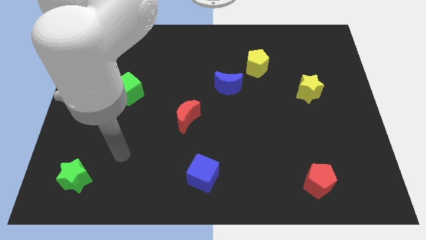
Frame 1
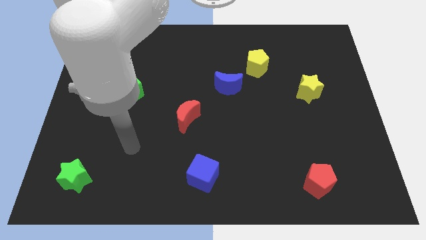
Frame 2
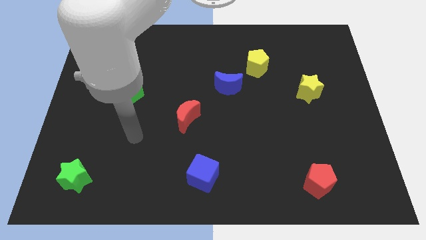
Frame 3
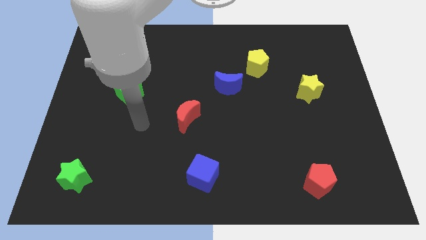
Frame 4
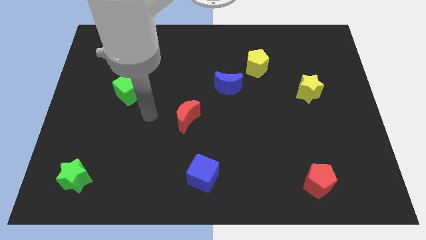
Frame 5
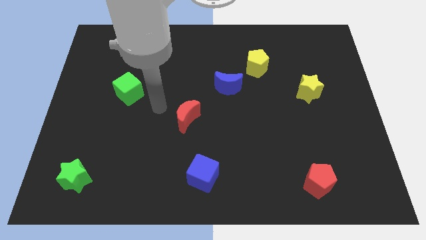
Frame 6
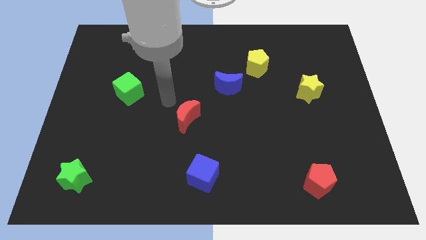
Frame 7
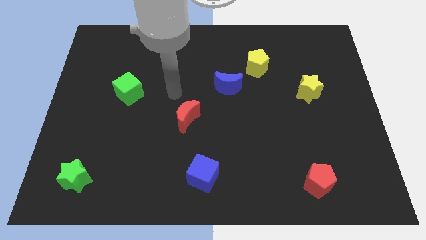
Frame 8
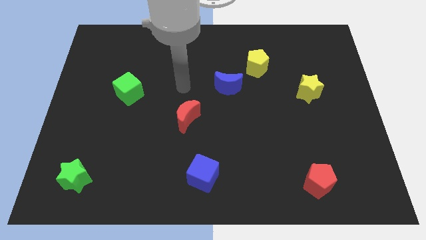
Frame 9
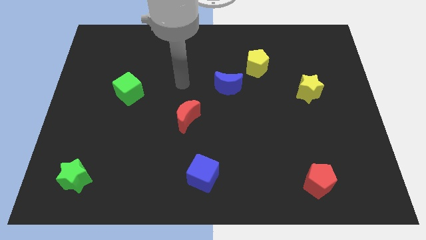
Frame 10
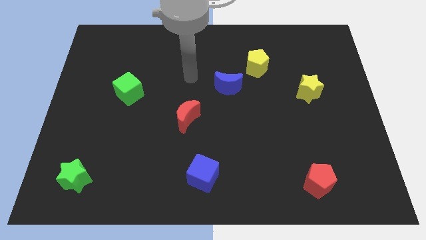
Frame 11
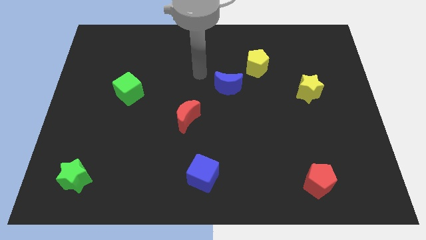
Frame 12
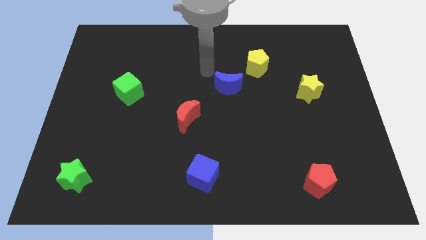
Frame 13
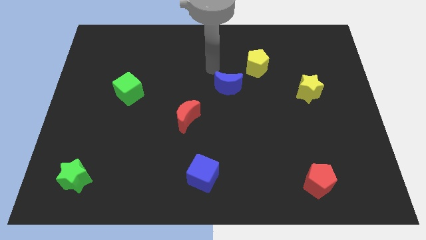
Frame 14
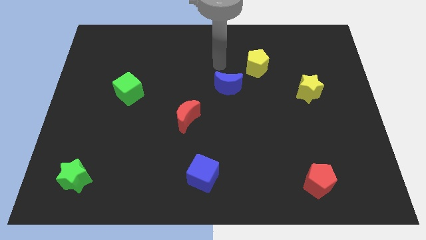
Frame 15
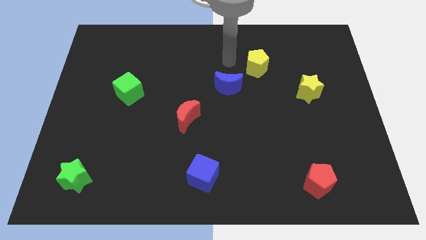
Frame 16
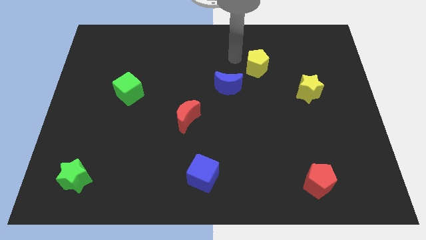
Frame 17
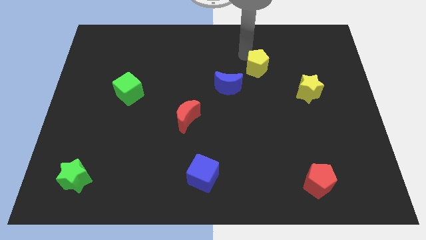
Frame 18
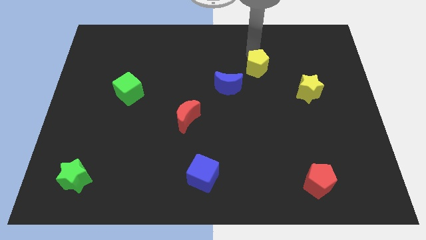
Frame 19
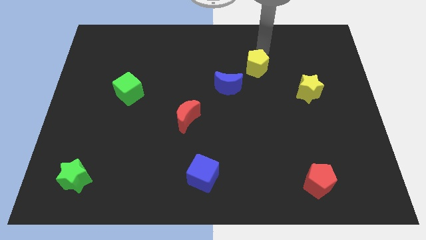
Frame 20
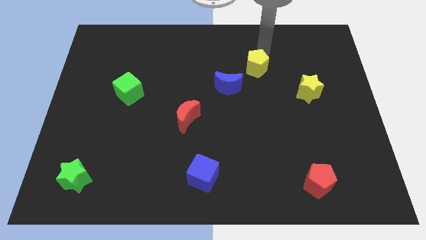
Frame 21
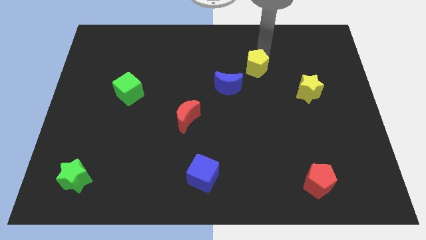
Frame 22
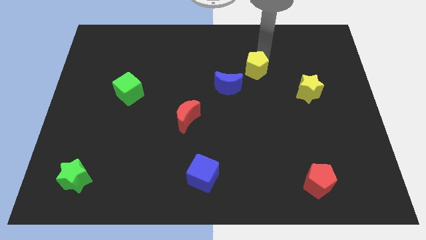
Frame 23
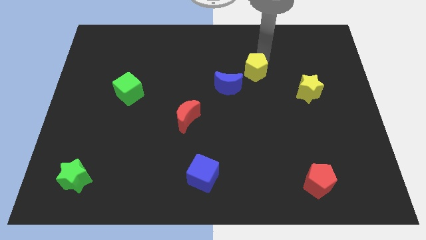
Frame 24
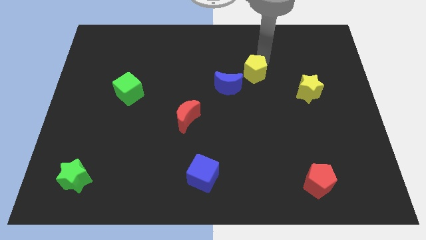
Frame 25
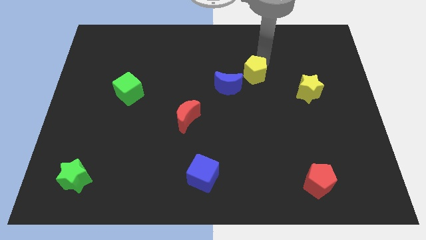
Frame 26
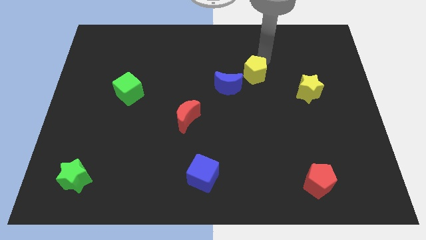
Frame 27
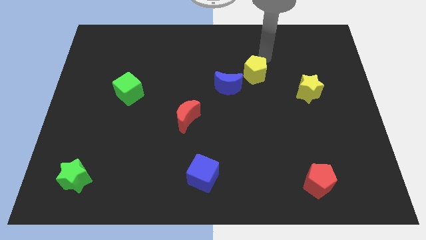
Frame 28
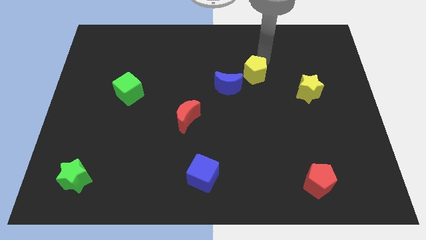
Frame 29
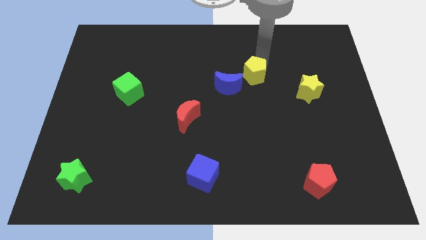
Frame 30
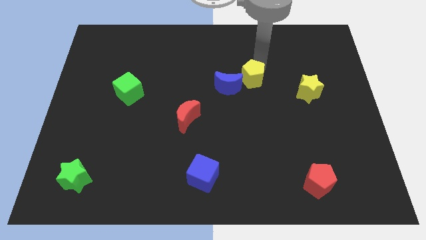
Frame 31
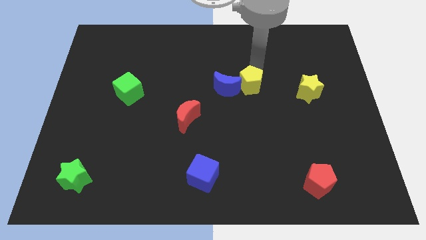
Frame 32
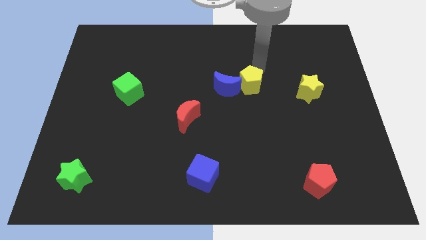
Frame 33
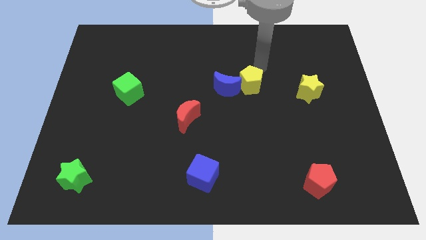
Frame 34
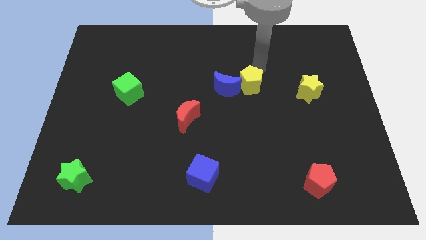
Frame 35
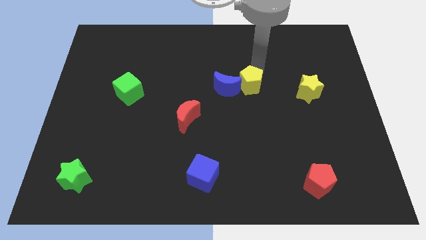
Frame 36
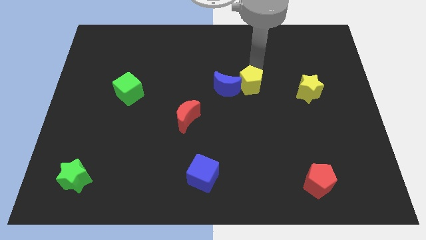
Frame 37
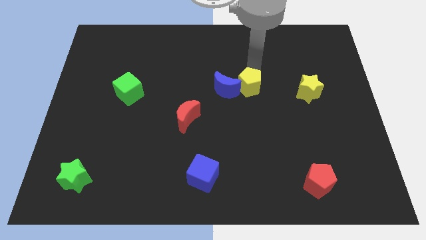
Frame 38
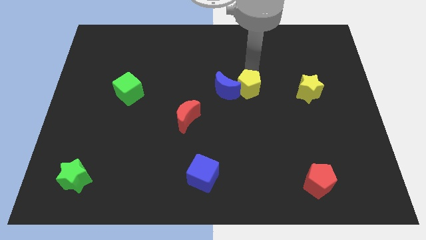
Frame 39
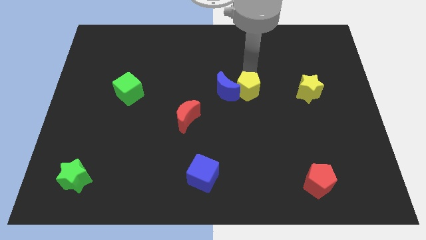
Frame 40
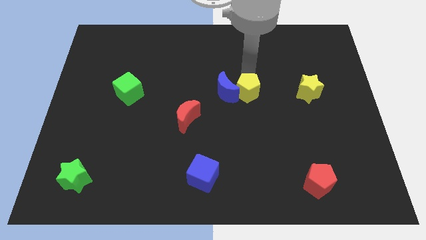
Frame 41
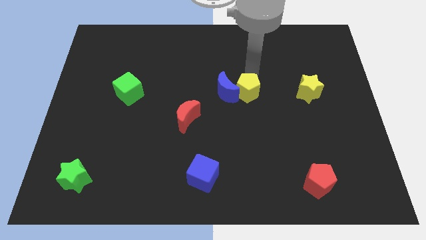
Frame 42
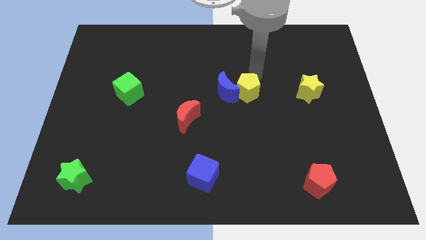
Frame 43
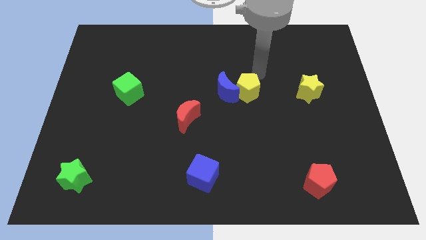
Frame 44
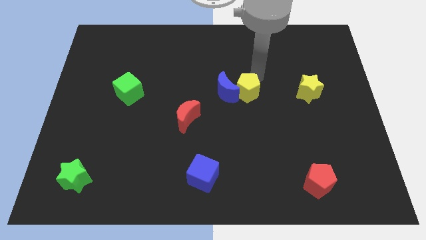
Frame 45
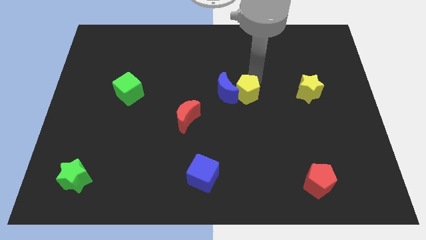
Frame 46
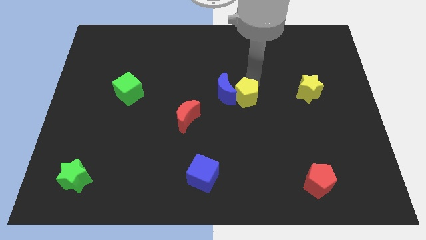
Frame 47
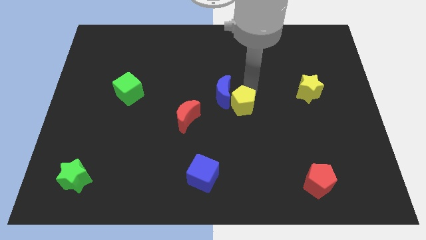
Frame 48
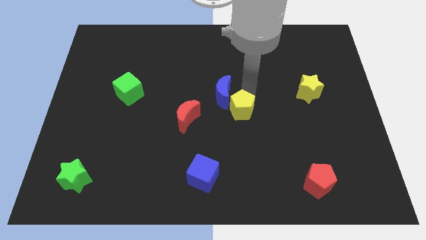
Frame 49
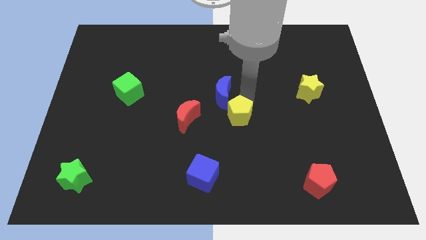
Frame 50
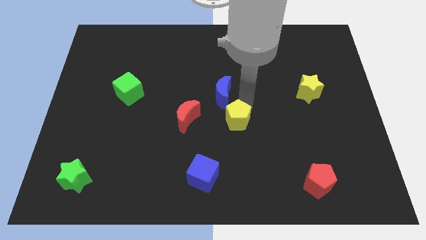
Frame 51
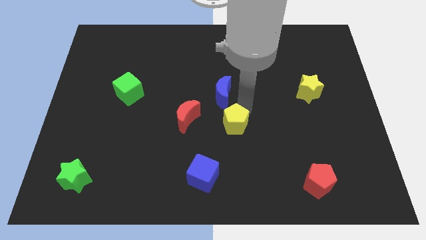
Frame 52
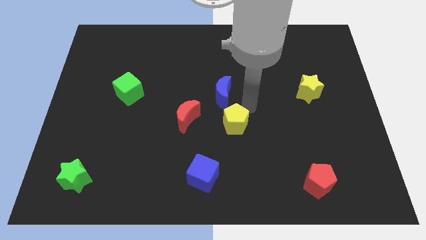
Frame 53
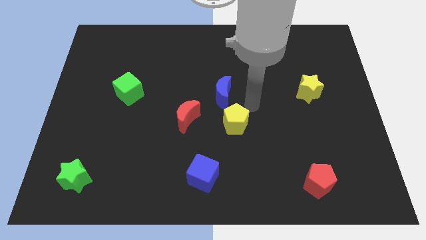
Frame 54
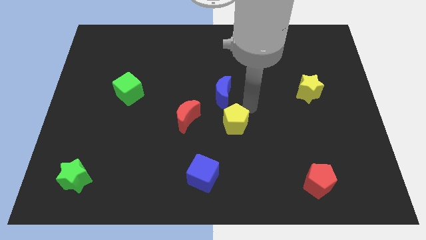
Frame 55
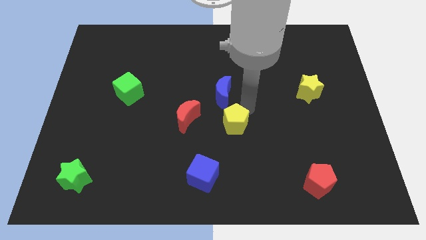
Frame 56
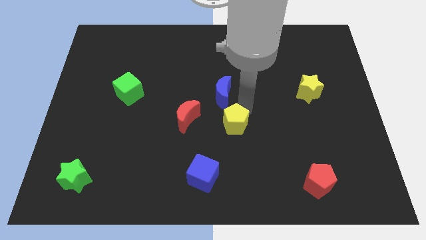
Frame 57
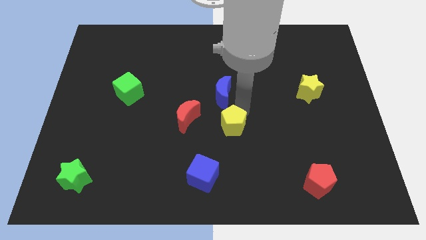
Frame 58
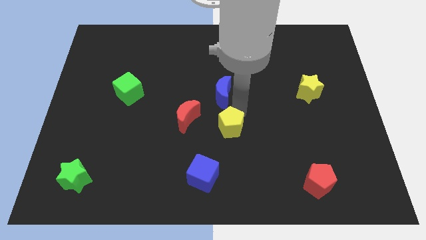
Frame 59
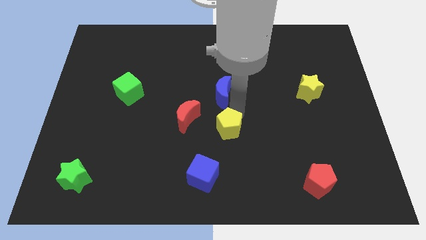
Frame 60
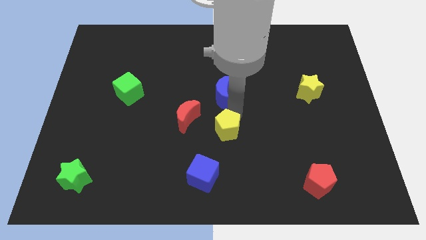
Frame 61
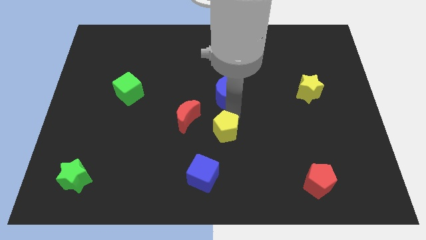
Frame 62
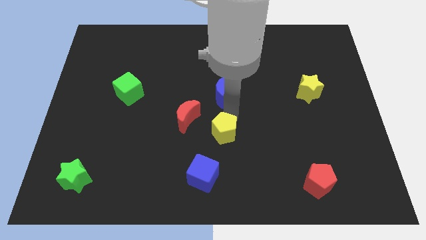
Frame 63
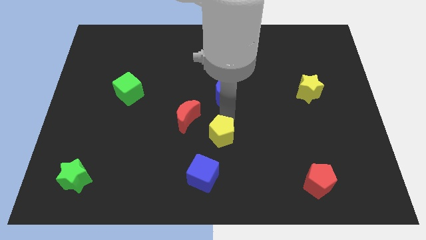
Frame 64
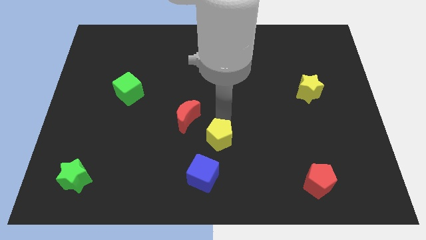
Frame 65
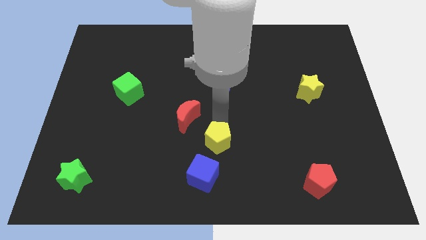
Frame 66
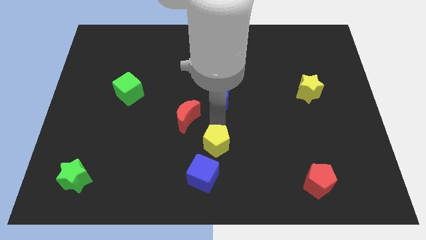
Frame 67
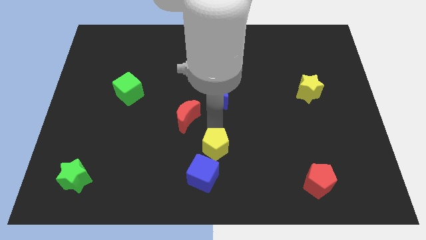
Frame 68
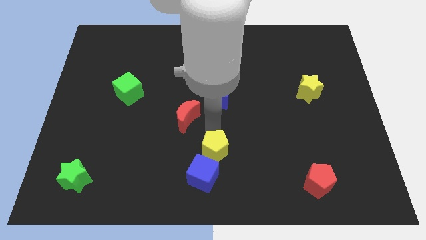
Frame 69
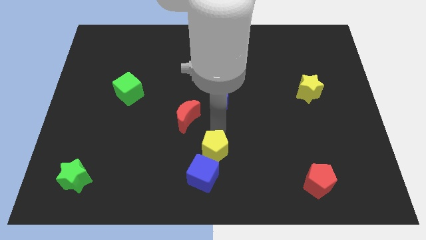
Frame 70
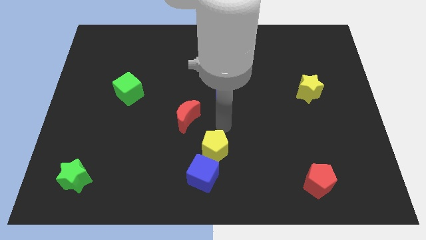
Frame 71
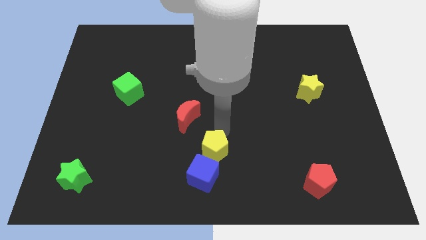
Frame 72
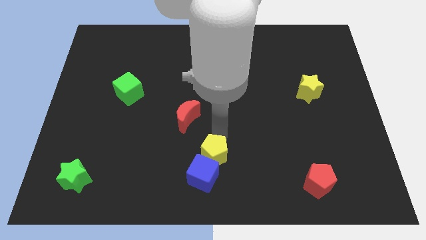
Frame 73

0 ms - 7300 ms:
push the yellow pentagon close to the blue cube

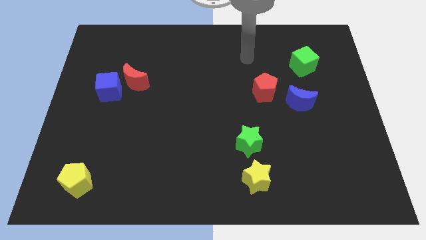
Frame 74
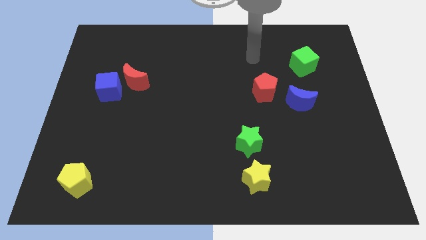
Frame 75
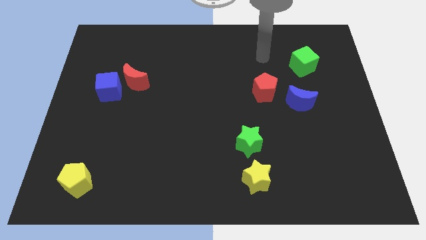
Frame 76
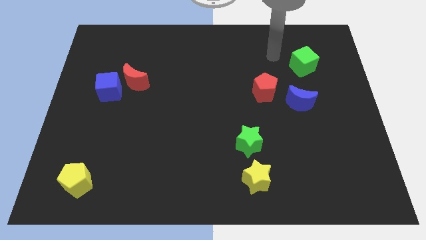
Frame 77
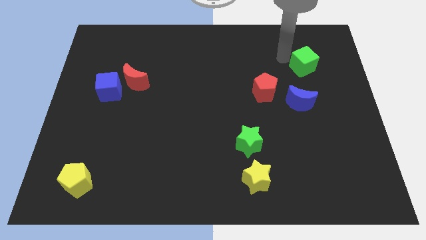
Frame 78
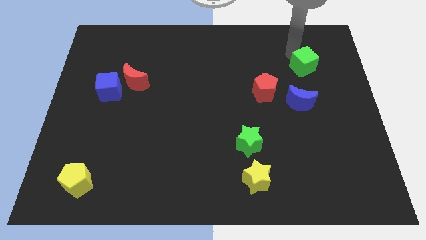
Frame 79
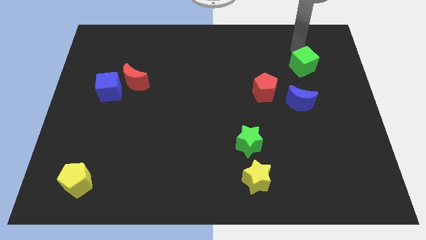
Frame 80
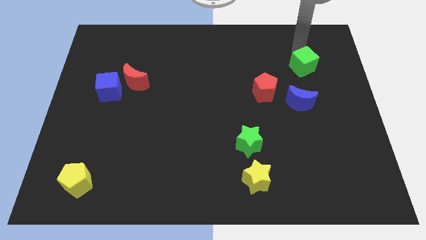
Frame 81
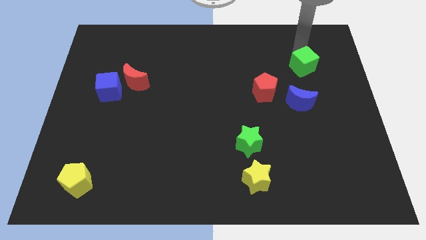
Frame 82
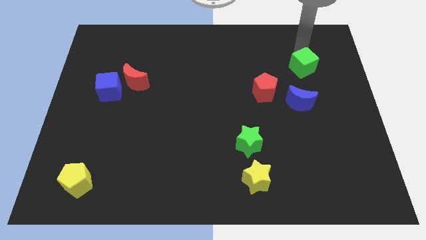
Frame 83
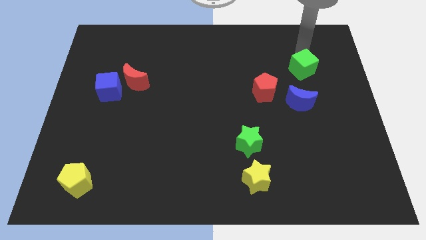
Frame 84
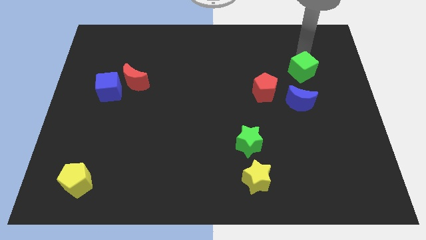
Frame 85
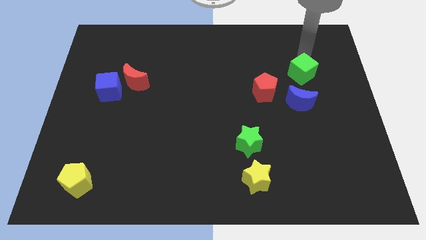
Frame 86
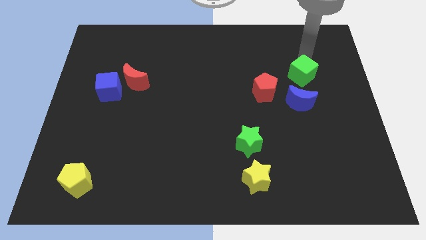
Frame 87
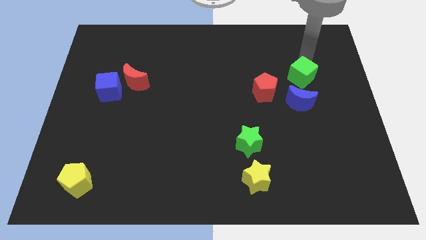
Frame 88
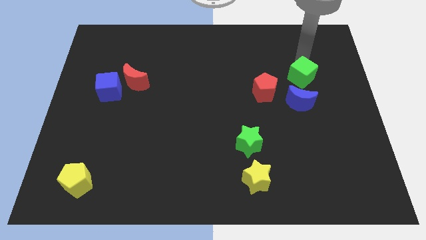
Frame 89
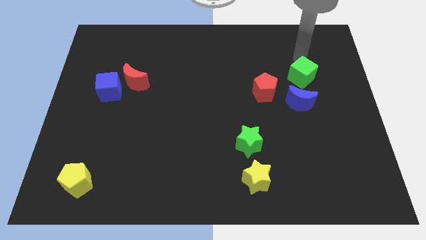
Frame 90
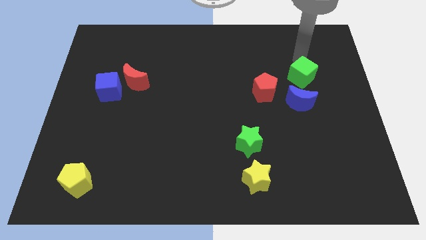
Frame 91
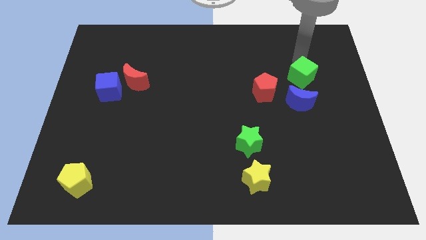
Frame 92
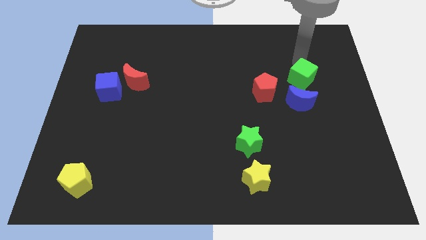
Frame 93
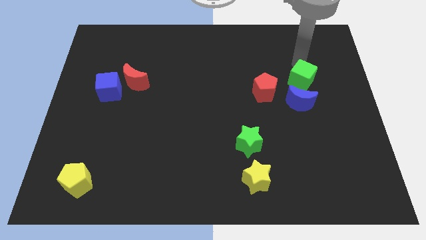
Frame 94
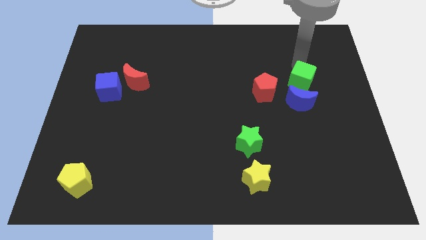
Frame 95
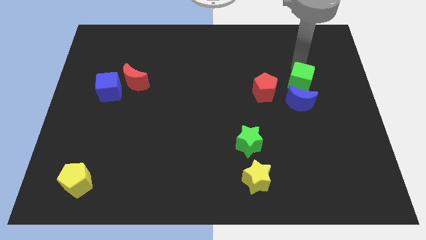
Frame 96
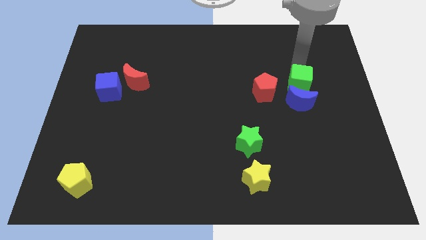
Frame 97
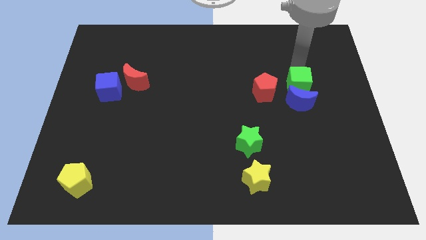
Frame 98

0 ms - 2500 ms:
move the green cube close to the blue moon
